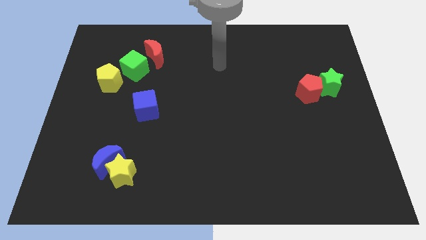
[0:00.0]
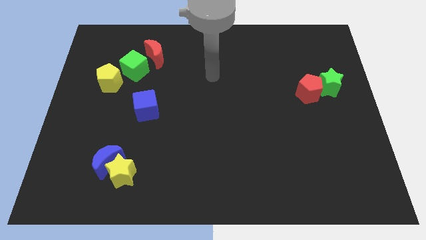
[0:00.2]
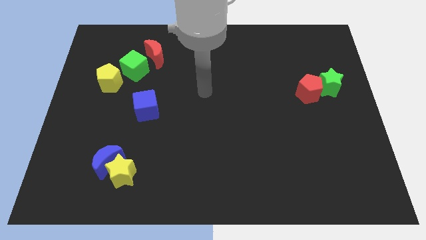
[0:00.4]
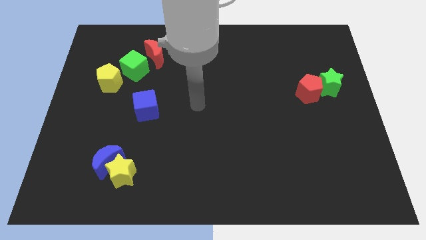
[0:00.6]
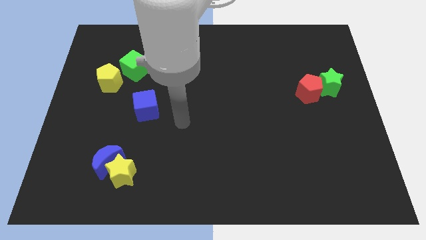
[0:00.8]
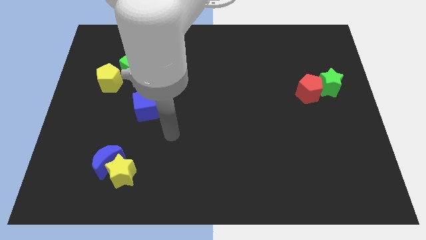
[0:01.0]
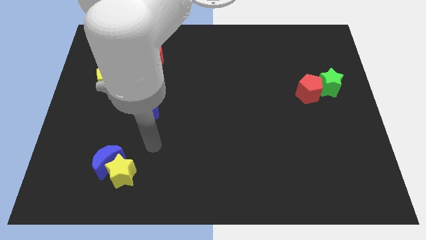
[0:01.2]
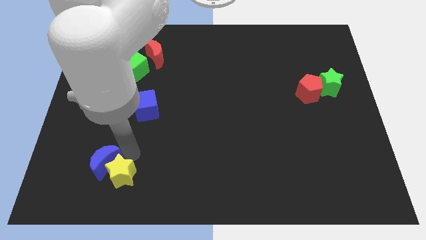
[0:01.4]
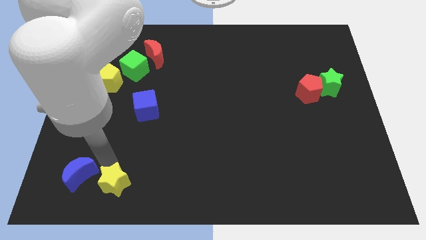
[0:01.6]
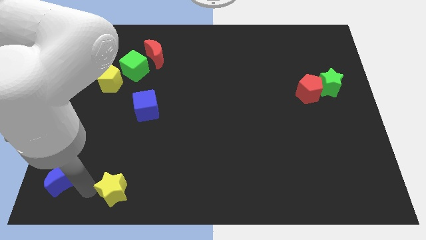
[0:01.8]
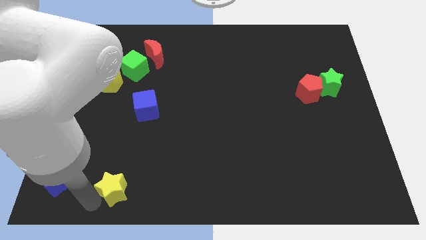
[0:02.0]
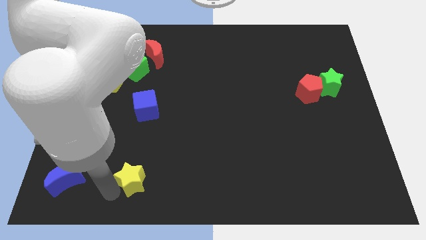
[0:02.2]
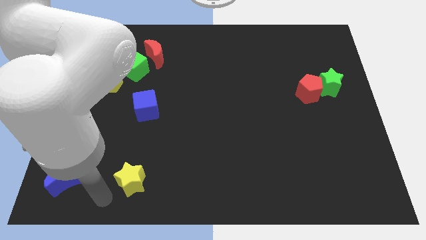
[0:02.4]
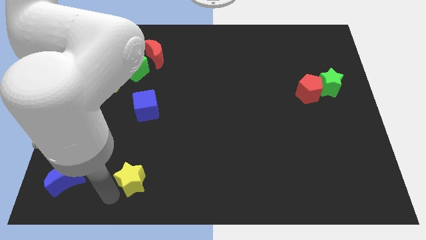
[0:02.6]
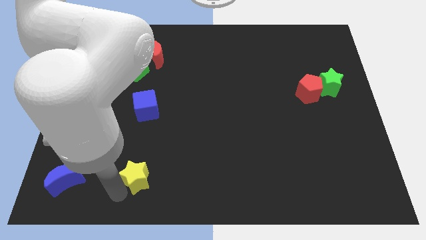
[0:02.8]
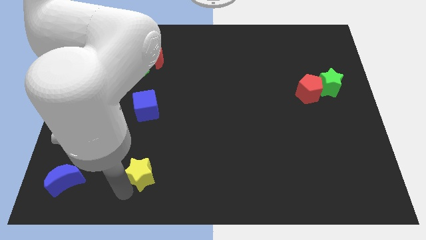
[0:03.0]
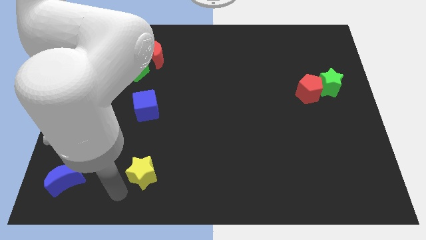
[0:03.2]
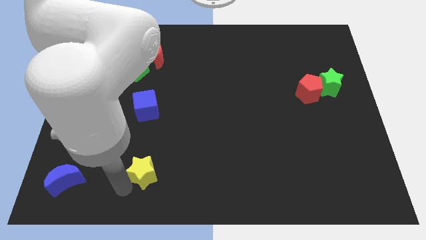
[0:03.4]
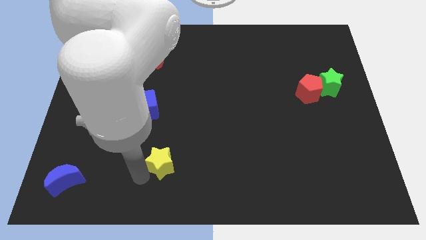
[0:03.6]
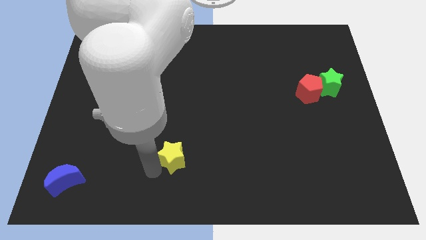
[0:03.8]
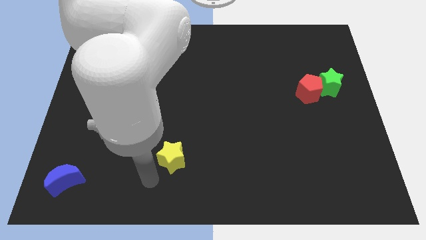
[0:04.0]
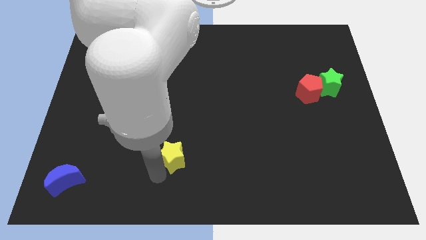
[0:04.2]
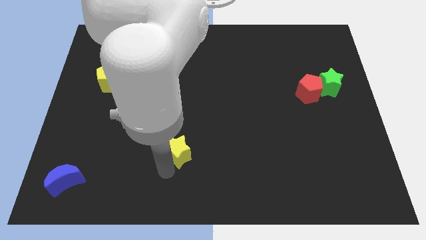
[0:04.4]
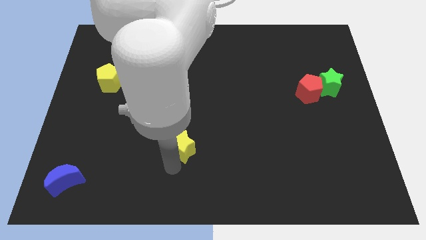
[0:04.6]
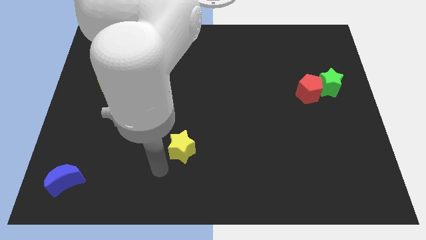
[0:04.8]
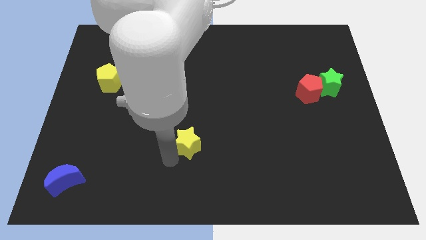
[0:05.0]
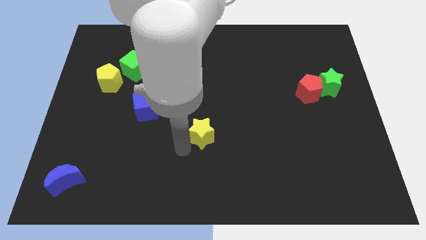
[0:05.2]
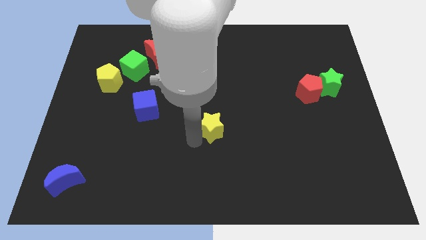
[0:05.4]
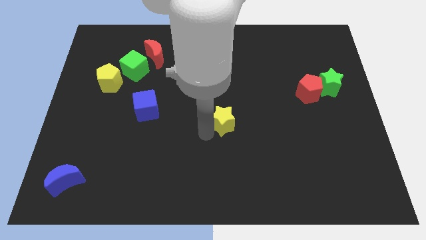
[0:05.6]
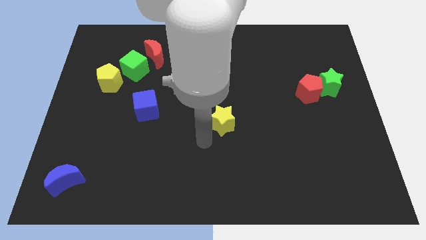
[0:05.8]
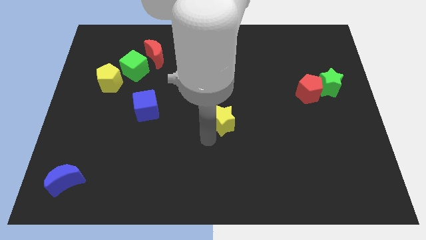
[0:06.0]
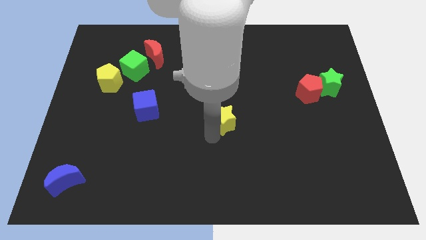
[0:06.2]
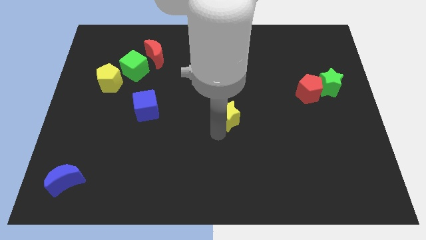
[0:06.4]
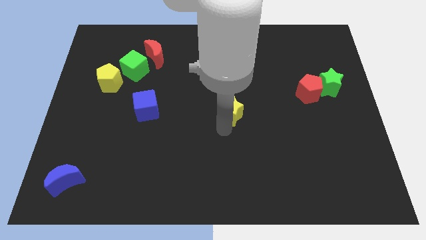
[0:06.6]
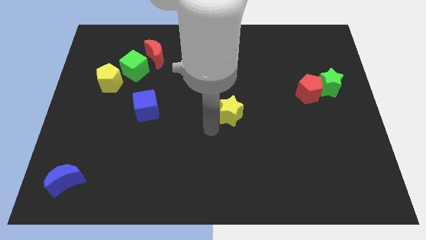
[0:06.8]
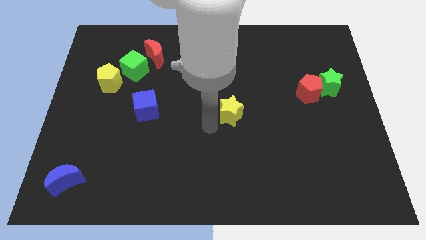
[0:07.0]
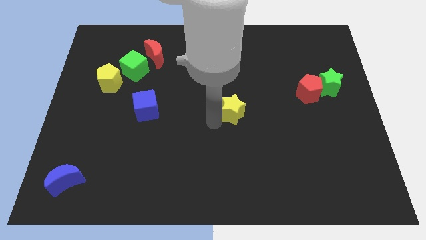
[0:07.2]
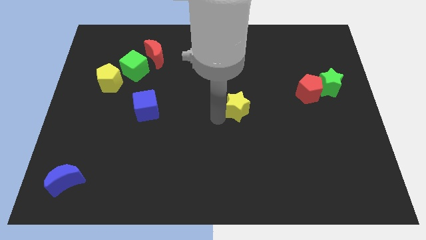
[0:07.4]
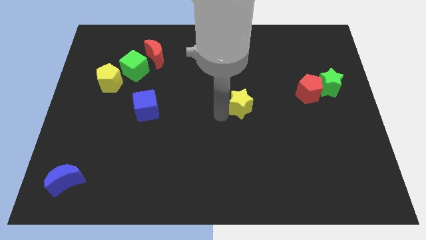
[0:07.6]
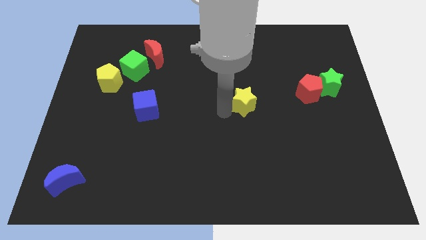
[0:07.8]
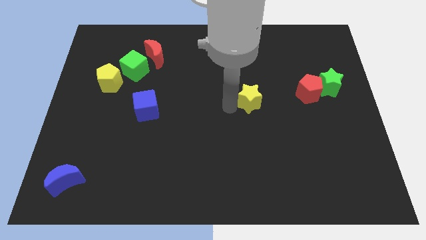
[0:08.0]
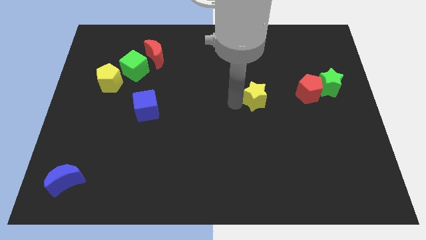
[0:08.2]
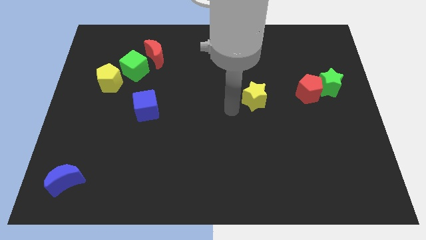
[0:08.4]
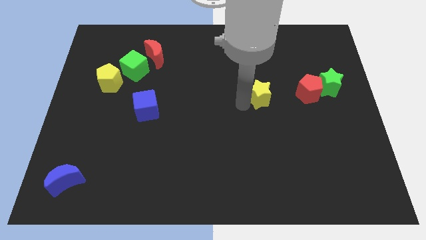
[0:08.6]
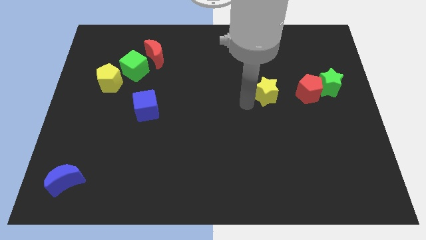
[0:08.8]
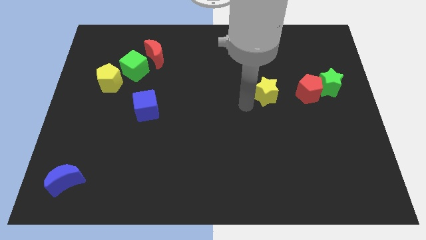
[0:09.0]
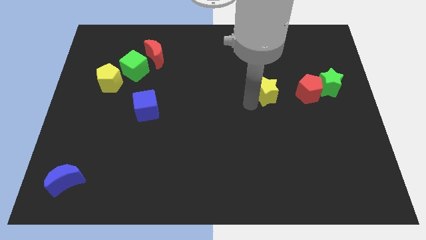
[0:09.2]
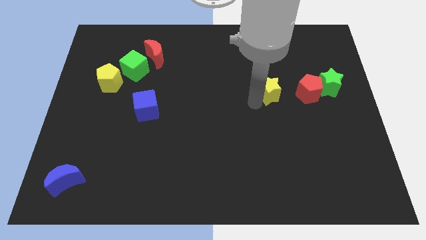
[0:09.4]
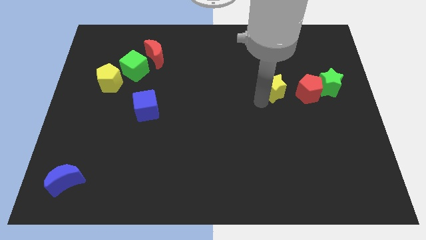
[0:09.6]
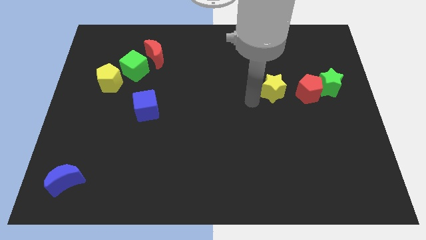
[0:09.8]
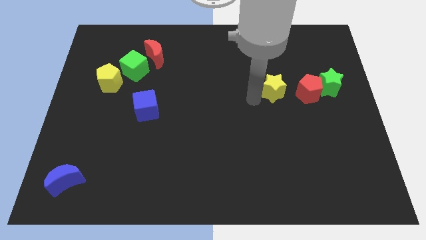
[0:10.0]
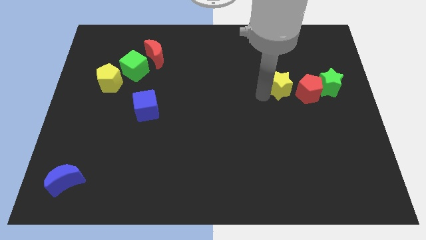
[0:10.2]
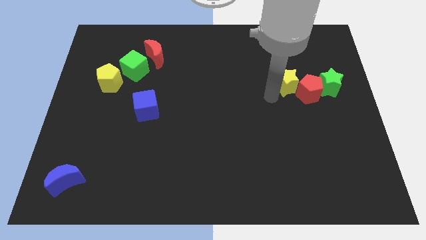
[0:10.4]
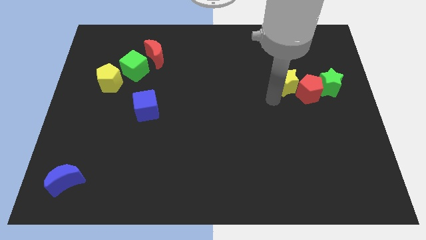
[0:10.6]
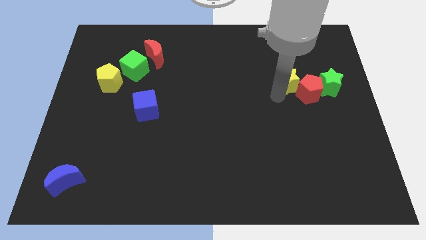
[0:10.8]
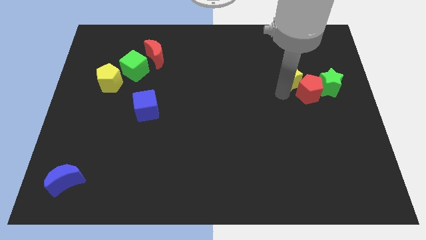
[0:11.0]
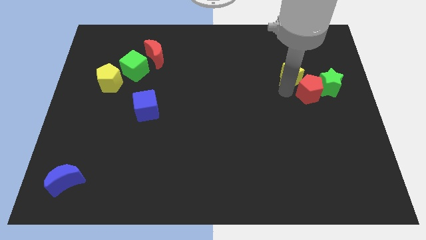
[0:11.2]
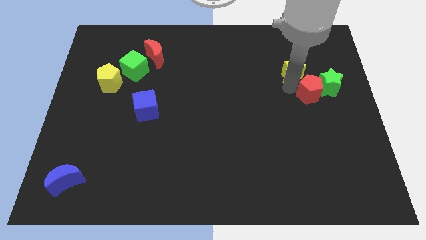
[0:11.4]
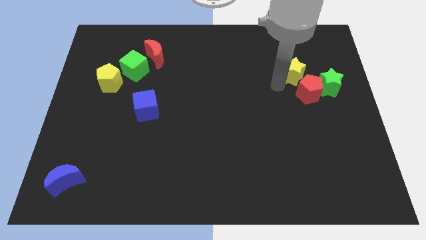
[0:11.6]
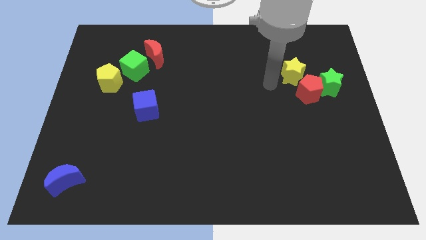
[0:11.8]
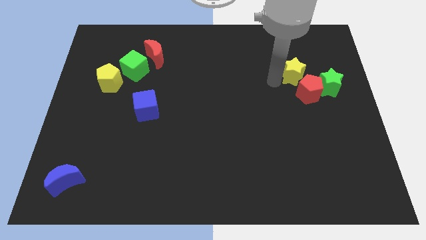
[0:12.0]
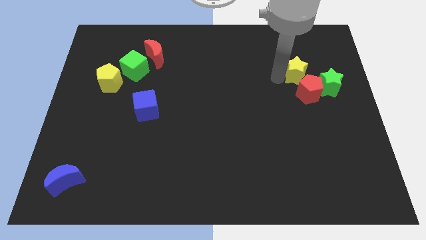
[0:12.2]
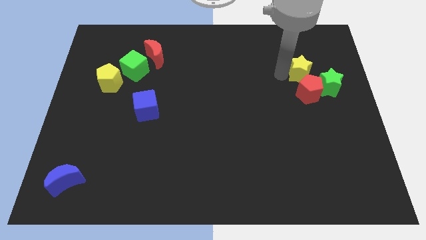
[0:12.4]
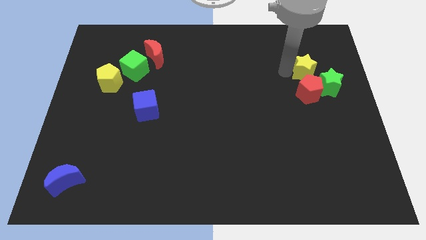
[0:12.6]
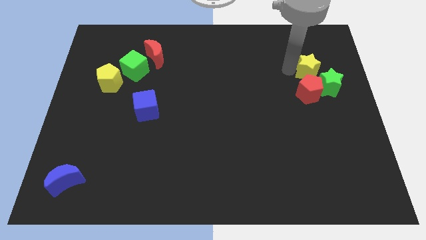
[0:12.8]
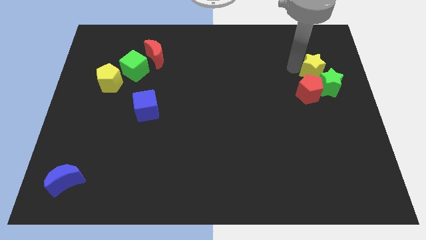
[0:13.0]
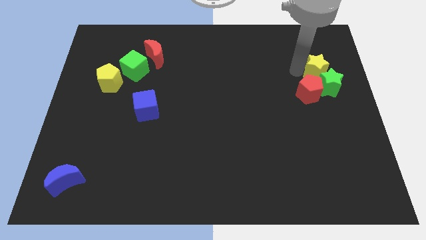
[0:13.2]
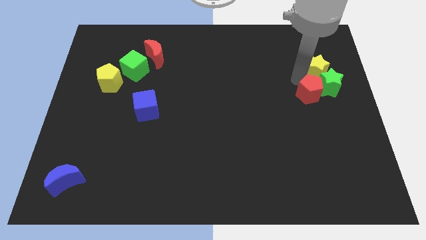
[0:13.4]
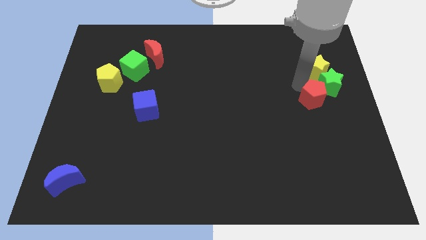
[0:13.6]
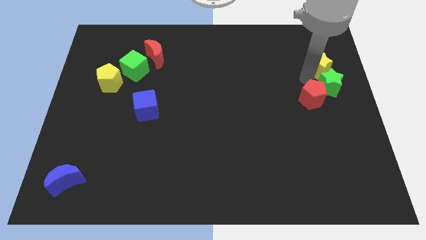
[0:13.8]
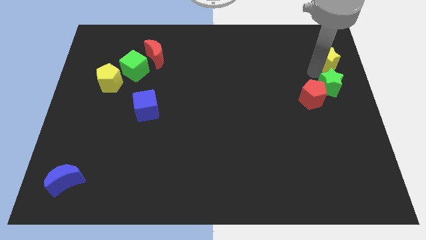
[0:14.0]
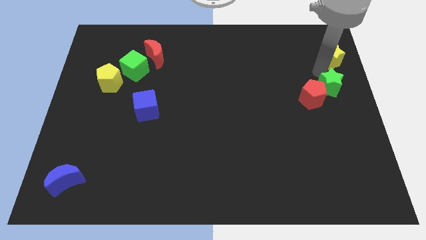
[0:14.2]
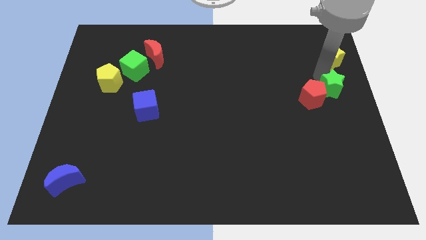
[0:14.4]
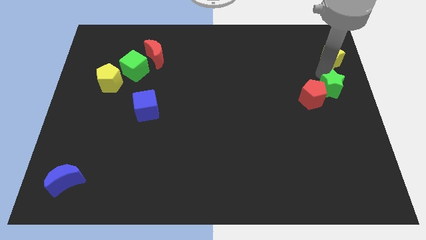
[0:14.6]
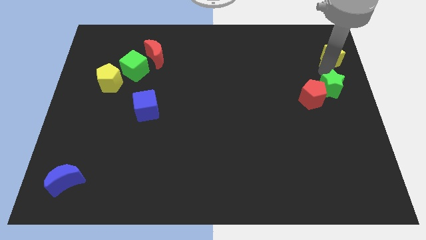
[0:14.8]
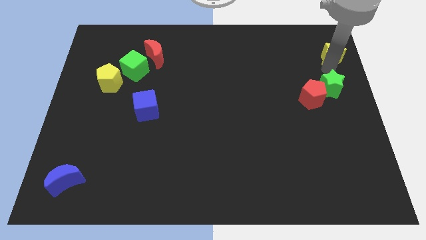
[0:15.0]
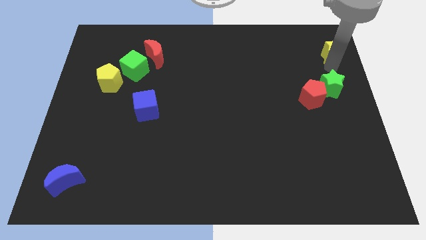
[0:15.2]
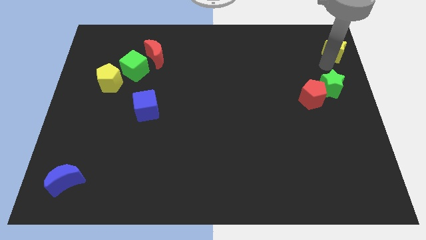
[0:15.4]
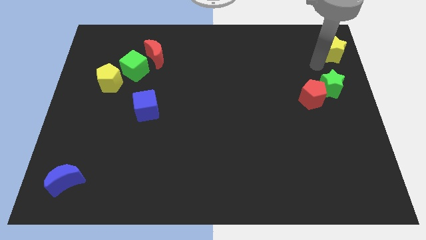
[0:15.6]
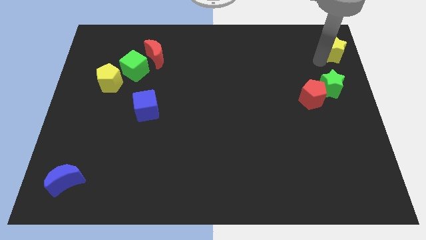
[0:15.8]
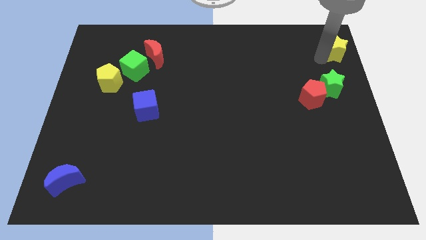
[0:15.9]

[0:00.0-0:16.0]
slide the yellow star to the top right
